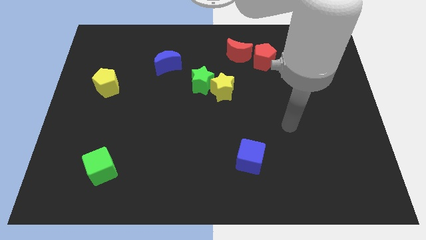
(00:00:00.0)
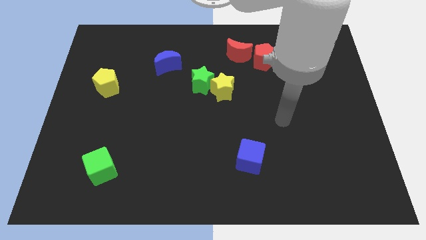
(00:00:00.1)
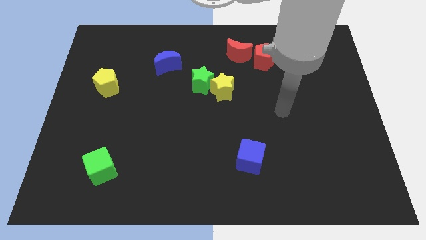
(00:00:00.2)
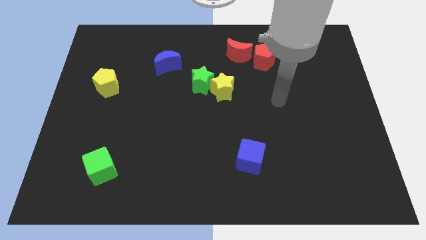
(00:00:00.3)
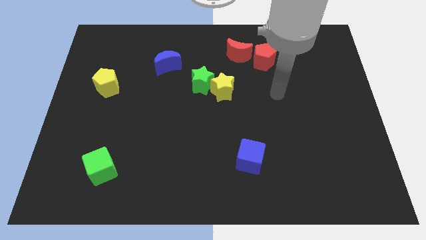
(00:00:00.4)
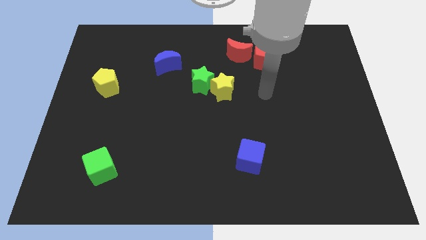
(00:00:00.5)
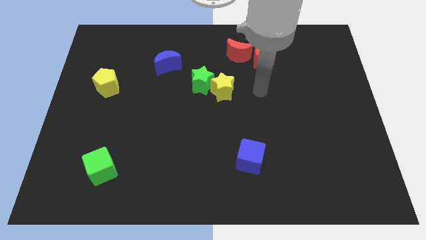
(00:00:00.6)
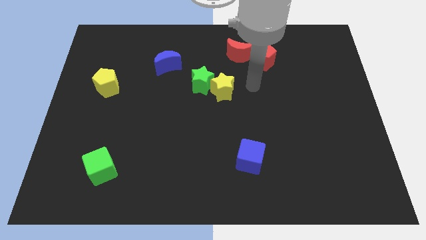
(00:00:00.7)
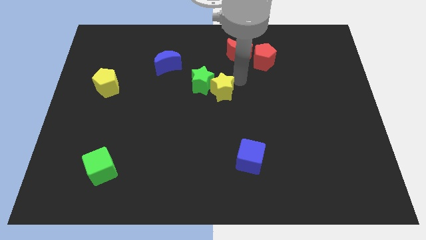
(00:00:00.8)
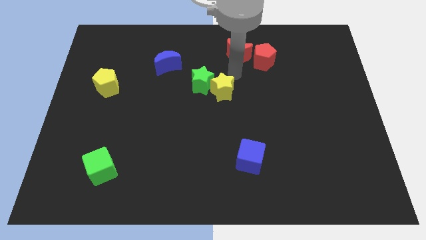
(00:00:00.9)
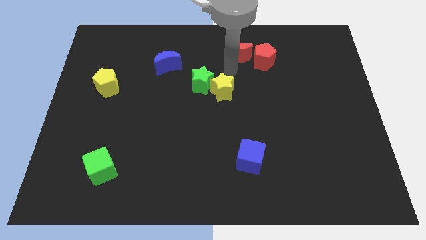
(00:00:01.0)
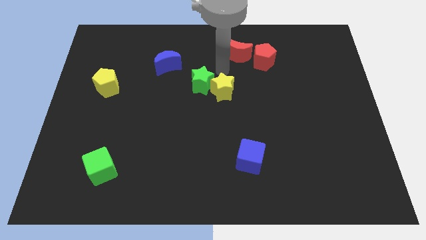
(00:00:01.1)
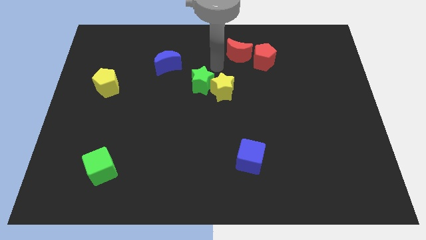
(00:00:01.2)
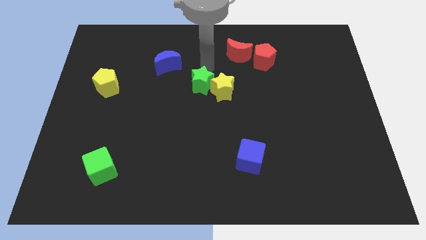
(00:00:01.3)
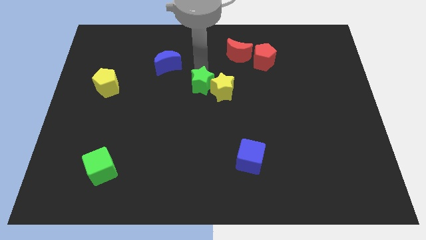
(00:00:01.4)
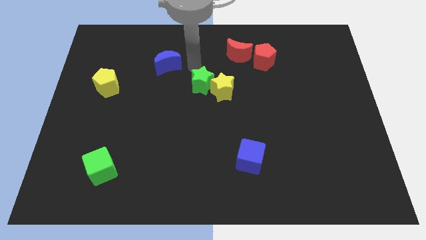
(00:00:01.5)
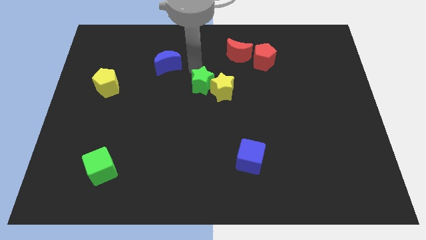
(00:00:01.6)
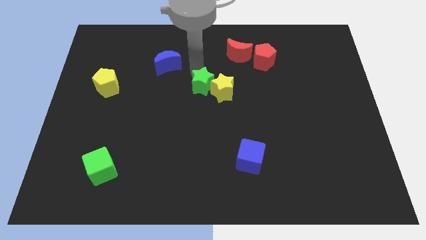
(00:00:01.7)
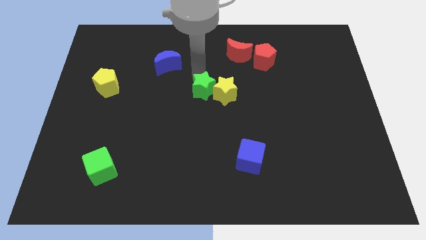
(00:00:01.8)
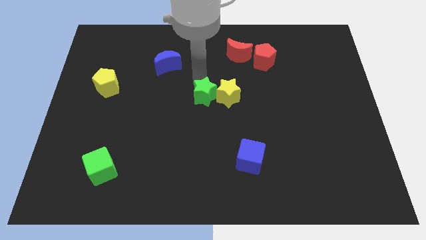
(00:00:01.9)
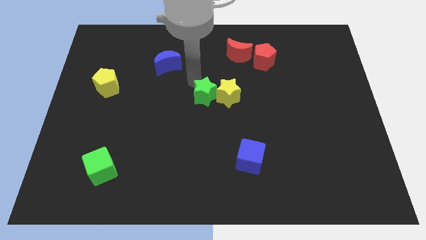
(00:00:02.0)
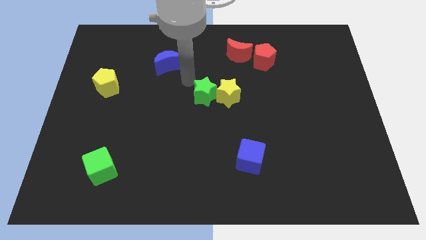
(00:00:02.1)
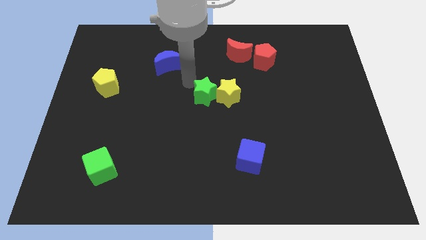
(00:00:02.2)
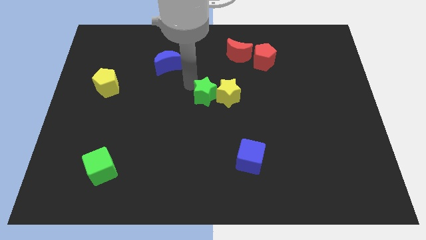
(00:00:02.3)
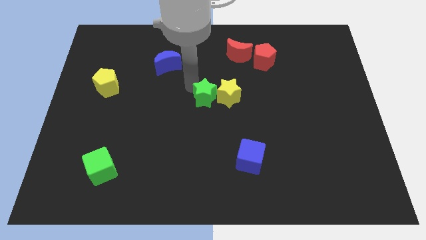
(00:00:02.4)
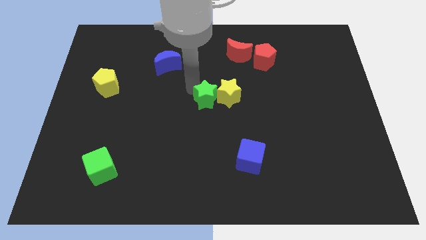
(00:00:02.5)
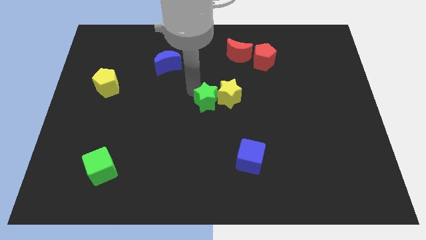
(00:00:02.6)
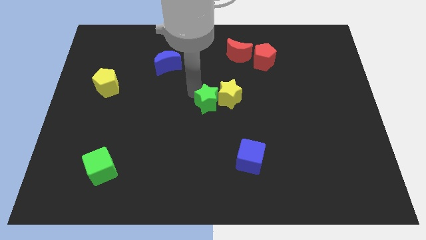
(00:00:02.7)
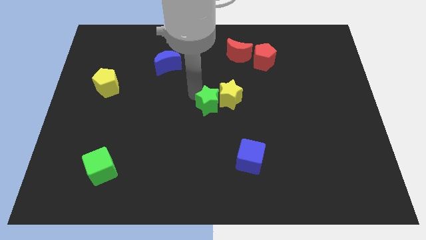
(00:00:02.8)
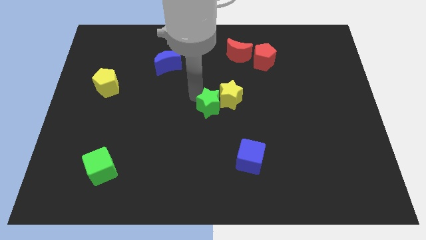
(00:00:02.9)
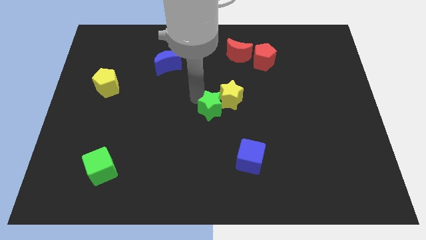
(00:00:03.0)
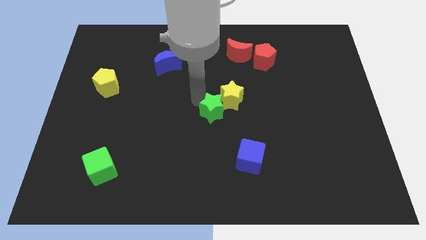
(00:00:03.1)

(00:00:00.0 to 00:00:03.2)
push the green star down and right diagonally somewhat

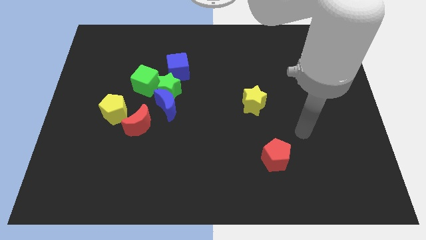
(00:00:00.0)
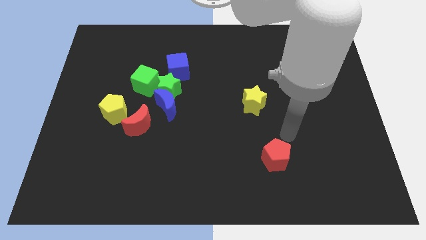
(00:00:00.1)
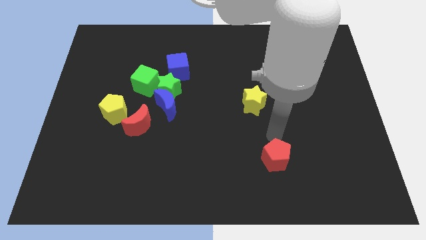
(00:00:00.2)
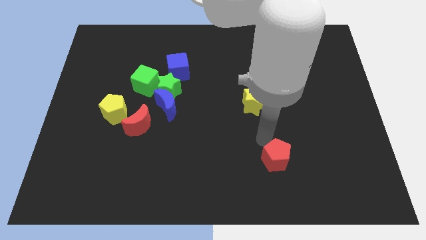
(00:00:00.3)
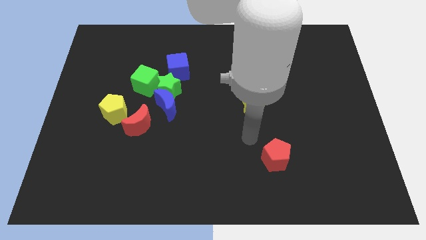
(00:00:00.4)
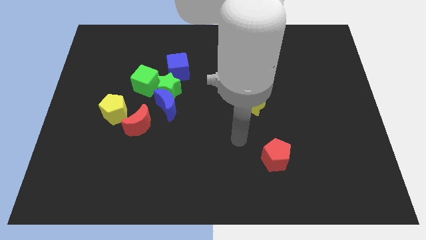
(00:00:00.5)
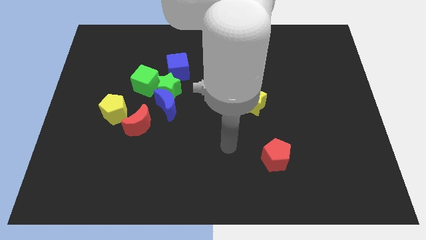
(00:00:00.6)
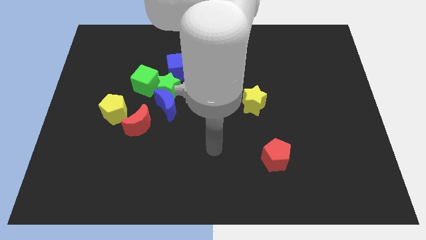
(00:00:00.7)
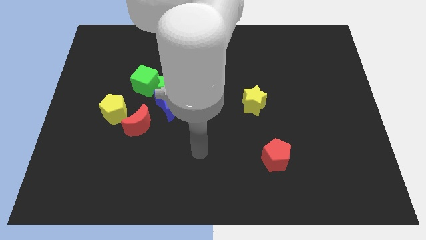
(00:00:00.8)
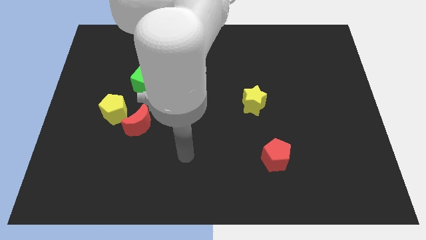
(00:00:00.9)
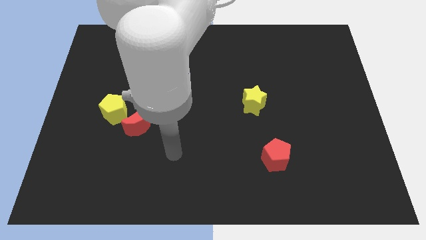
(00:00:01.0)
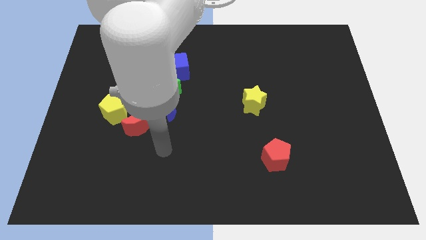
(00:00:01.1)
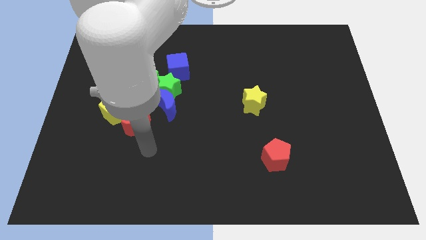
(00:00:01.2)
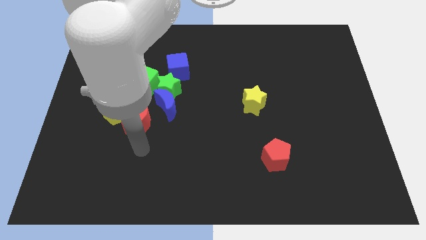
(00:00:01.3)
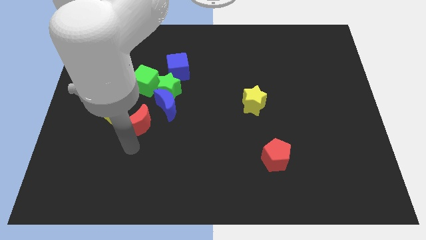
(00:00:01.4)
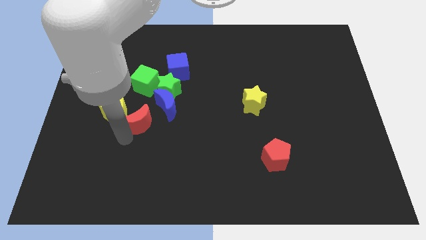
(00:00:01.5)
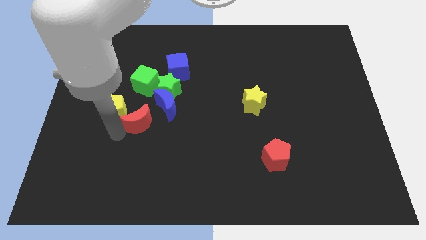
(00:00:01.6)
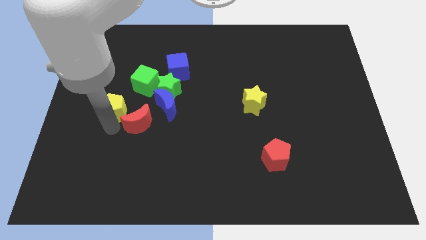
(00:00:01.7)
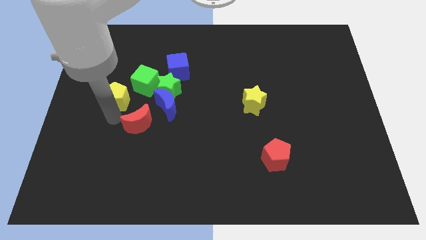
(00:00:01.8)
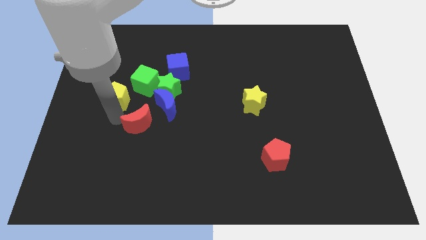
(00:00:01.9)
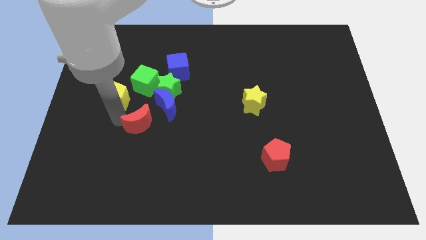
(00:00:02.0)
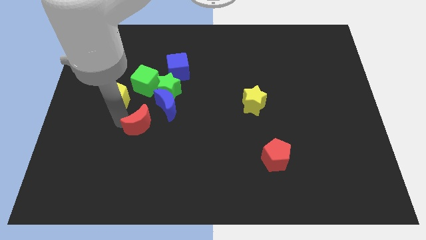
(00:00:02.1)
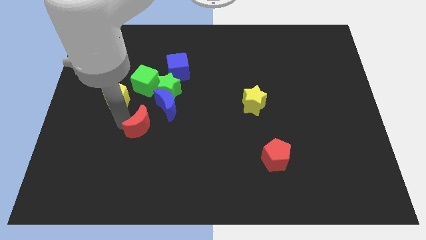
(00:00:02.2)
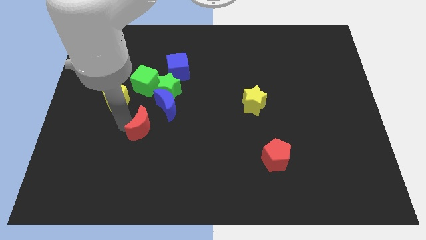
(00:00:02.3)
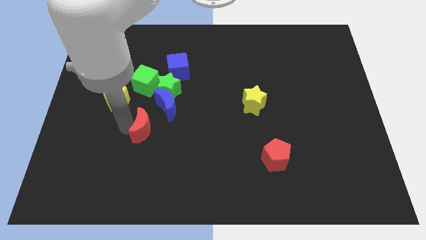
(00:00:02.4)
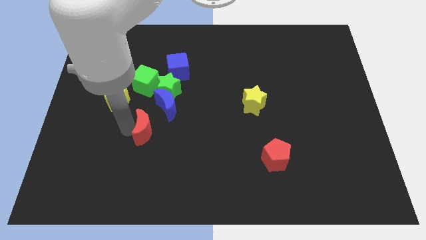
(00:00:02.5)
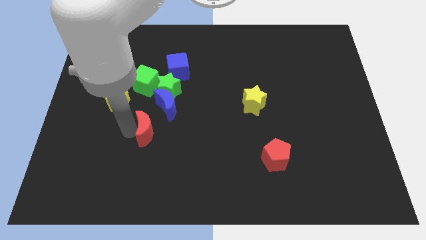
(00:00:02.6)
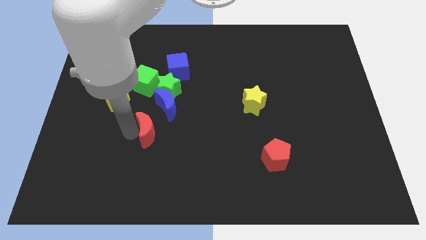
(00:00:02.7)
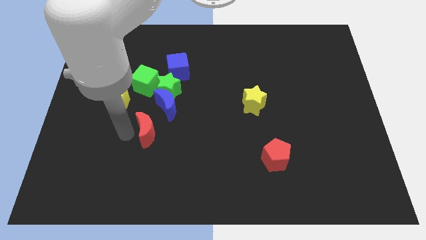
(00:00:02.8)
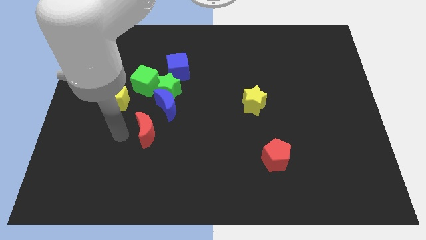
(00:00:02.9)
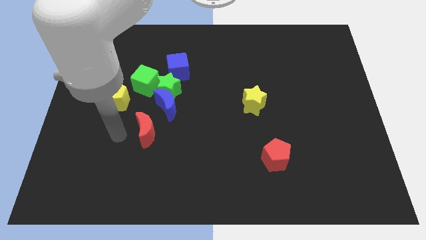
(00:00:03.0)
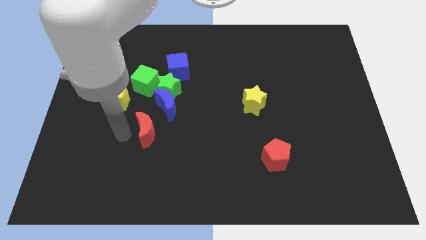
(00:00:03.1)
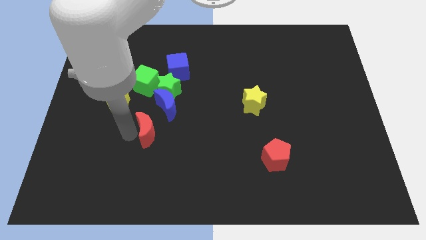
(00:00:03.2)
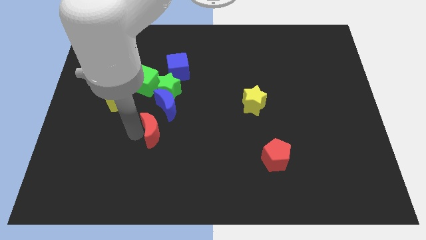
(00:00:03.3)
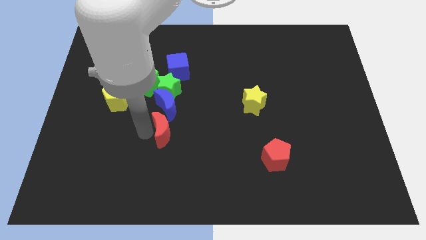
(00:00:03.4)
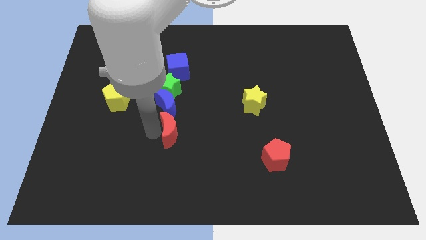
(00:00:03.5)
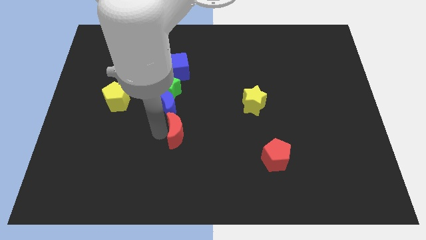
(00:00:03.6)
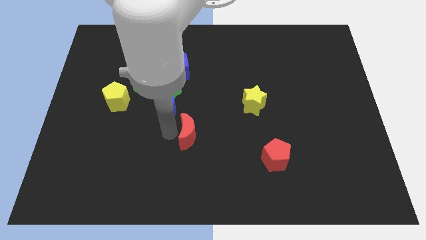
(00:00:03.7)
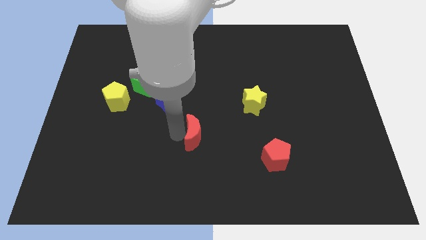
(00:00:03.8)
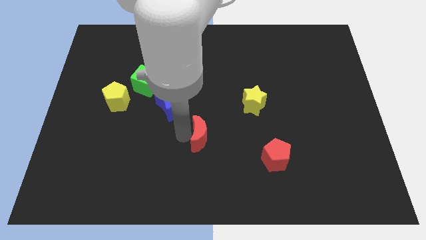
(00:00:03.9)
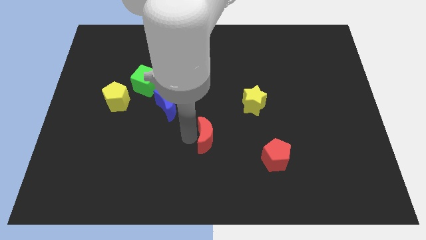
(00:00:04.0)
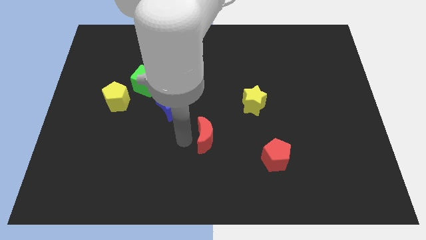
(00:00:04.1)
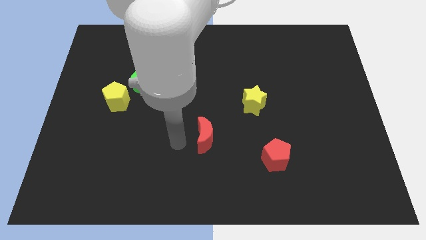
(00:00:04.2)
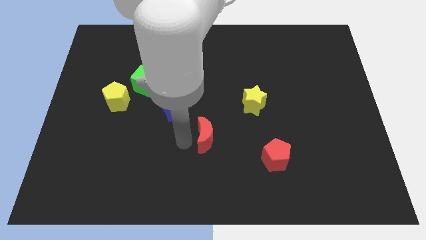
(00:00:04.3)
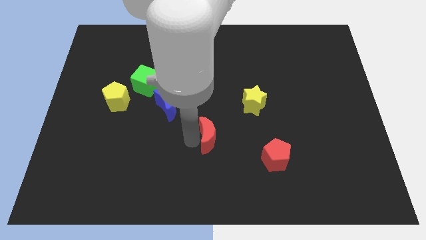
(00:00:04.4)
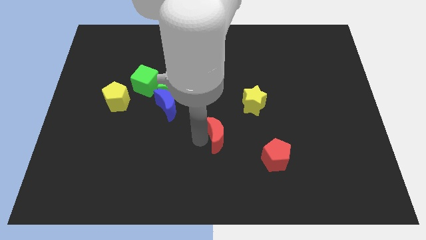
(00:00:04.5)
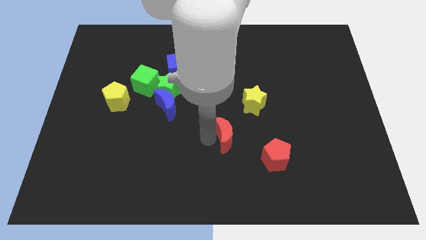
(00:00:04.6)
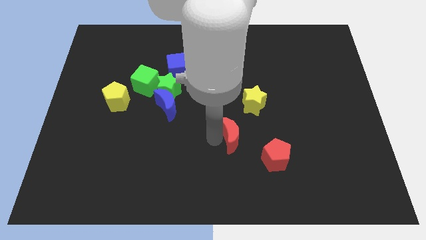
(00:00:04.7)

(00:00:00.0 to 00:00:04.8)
slide the red moon to the right
